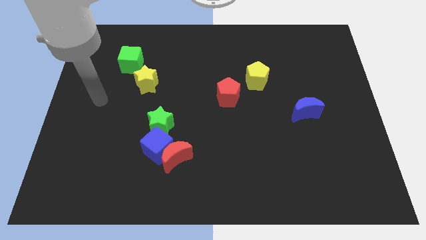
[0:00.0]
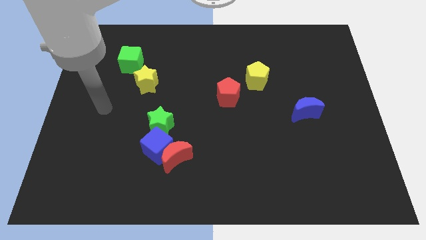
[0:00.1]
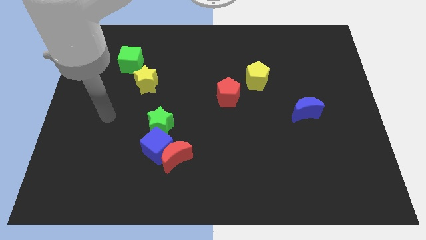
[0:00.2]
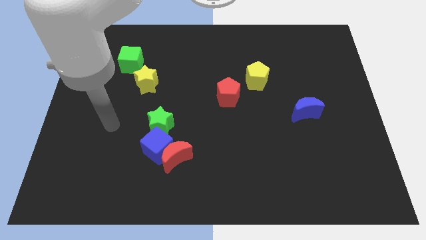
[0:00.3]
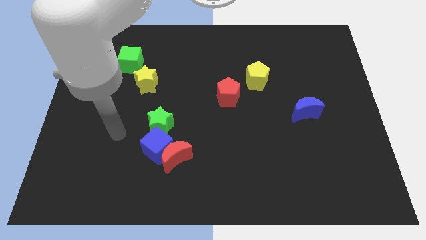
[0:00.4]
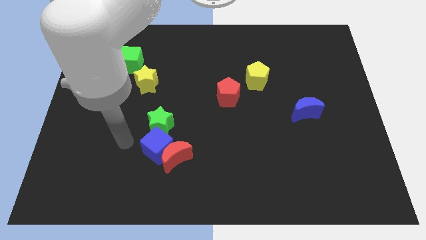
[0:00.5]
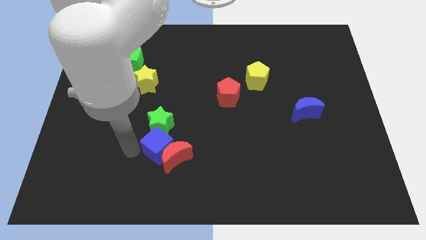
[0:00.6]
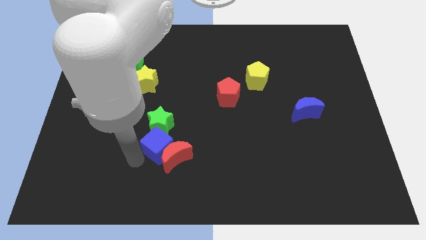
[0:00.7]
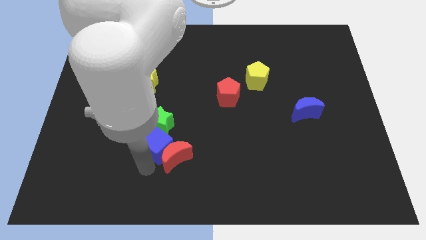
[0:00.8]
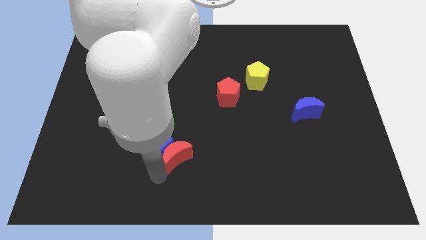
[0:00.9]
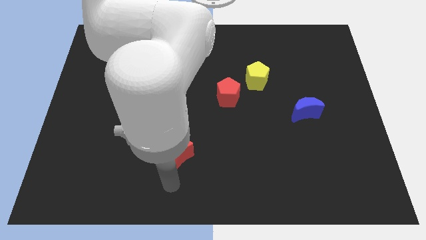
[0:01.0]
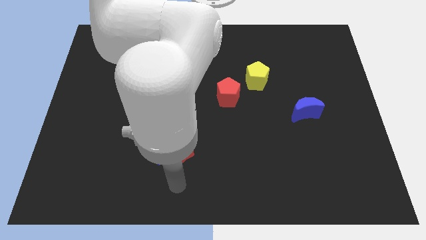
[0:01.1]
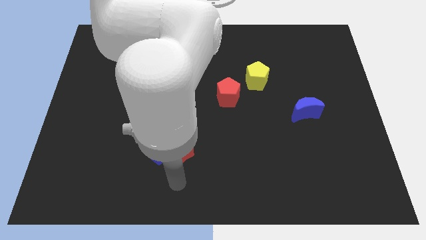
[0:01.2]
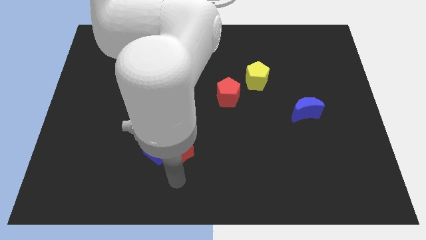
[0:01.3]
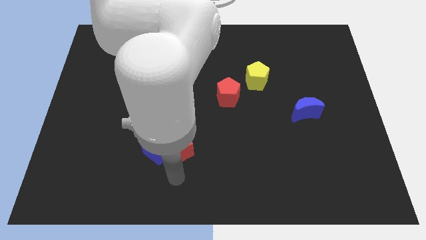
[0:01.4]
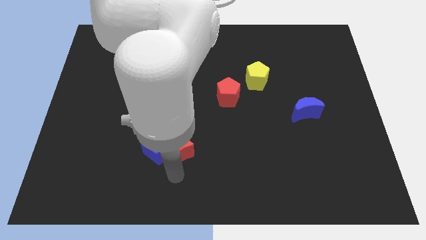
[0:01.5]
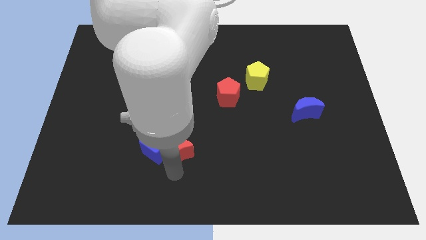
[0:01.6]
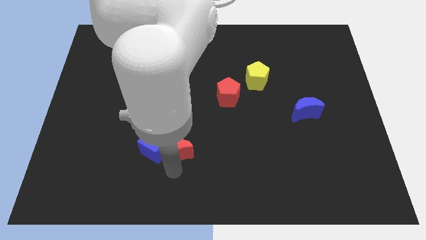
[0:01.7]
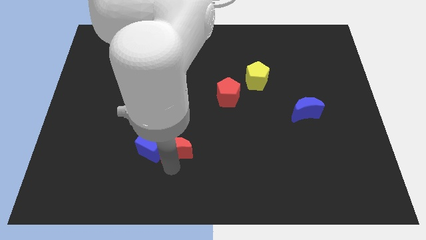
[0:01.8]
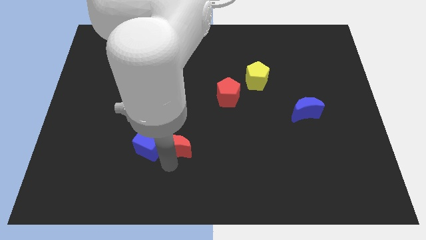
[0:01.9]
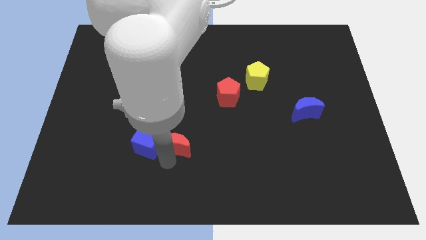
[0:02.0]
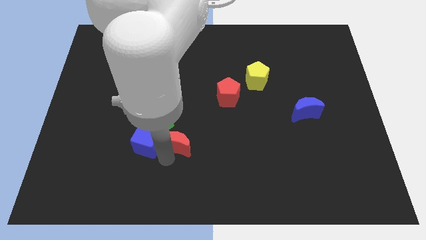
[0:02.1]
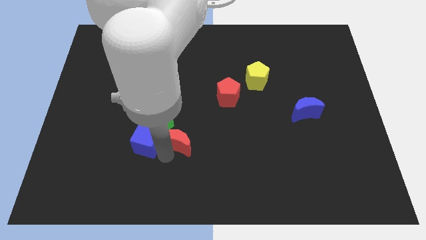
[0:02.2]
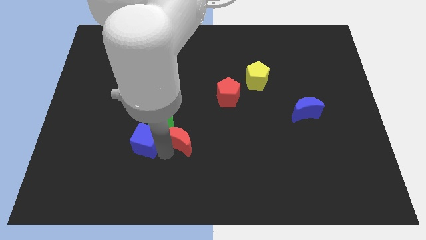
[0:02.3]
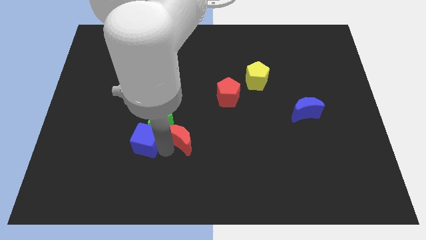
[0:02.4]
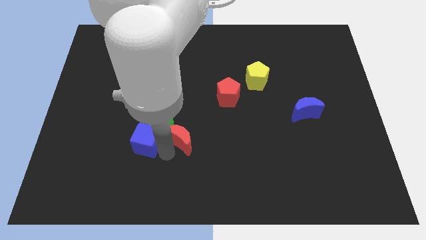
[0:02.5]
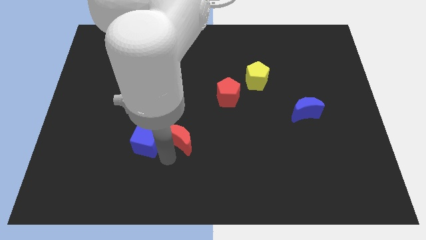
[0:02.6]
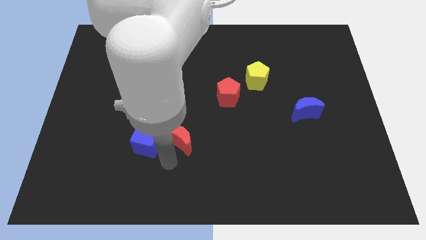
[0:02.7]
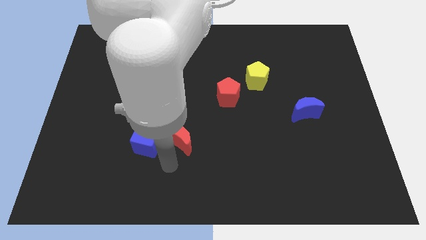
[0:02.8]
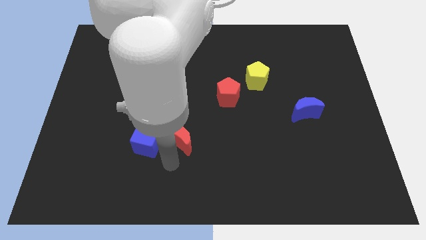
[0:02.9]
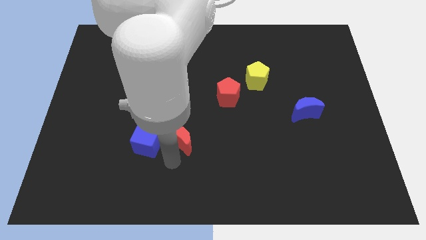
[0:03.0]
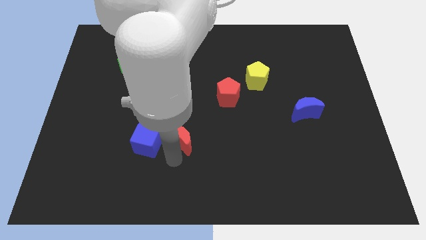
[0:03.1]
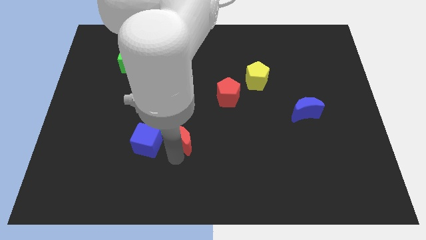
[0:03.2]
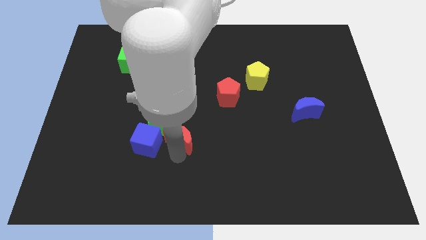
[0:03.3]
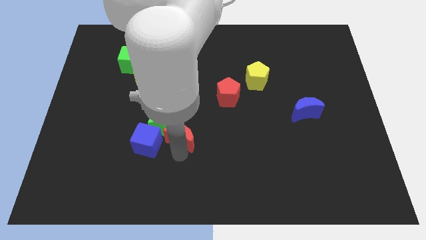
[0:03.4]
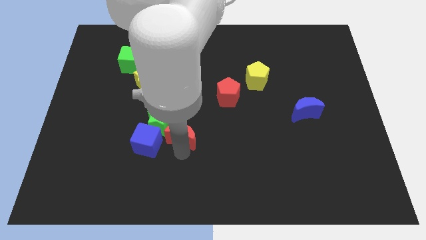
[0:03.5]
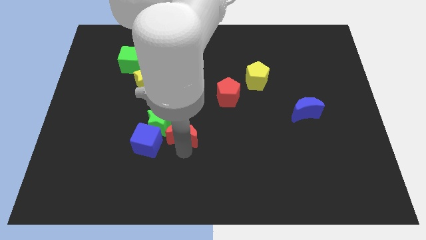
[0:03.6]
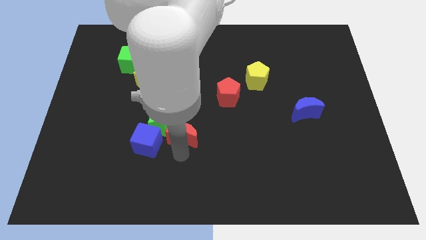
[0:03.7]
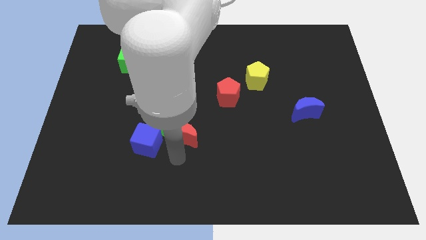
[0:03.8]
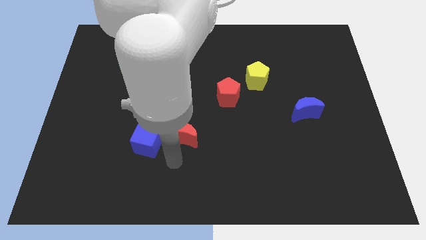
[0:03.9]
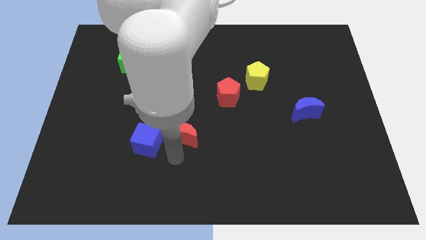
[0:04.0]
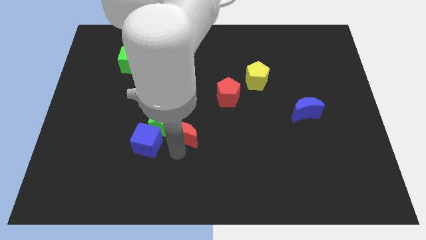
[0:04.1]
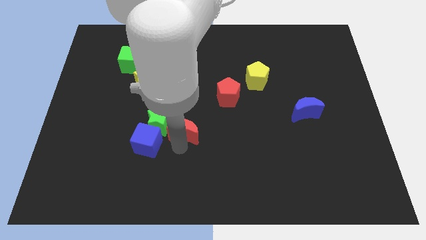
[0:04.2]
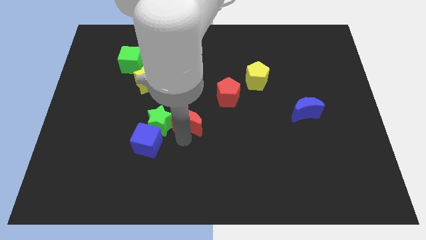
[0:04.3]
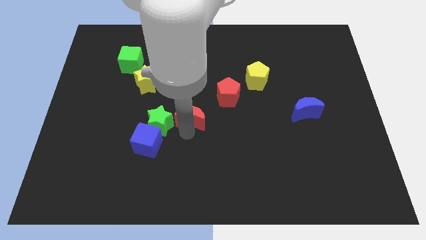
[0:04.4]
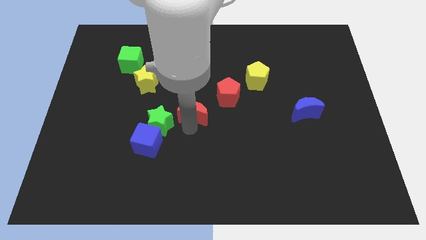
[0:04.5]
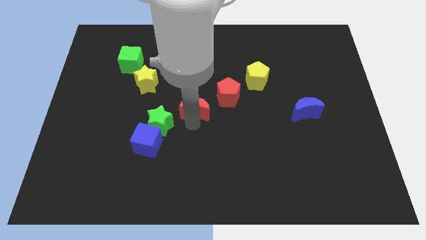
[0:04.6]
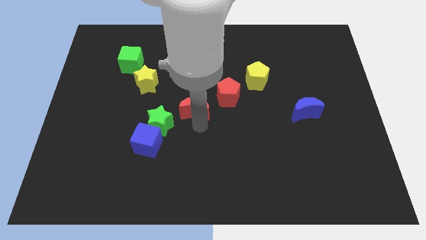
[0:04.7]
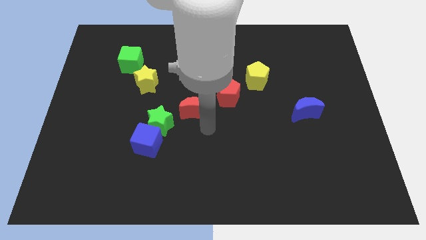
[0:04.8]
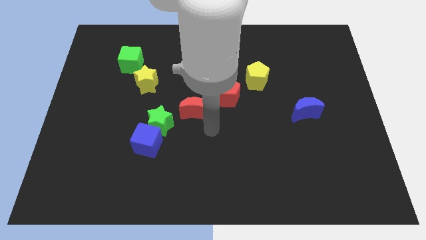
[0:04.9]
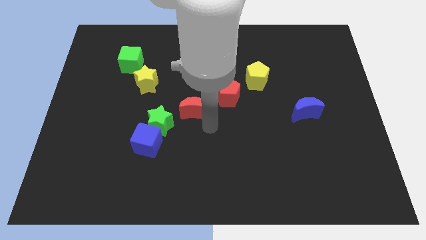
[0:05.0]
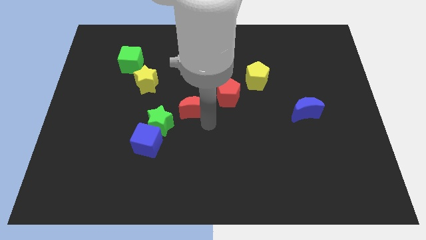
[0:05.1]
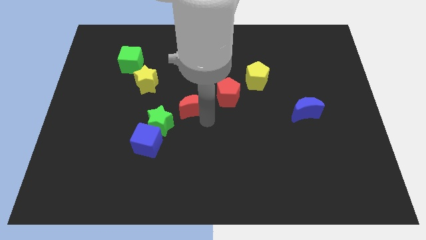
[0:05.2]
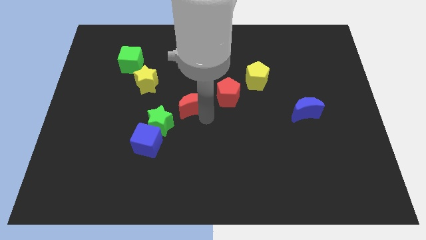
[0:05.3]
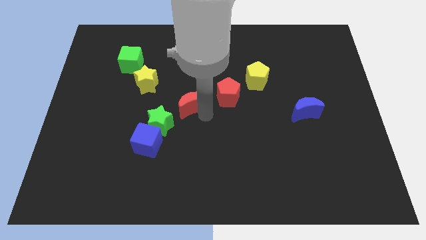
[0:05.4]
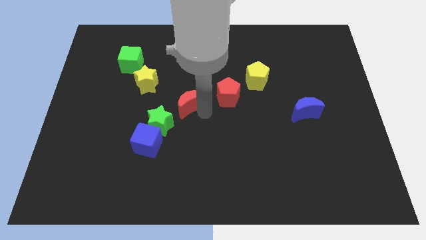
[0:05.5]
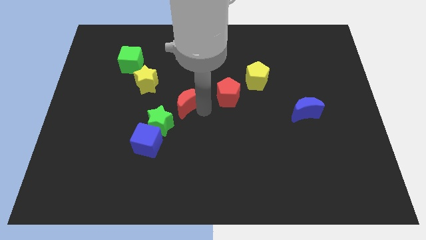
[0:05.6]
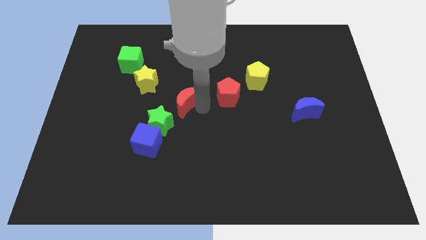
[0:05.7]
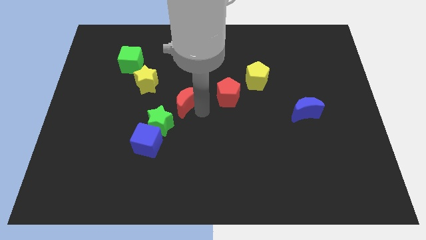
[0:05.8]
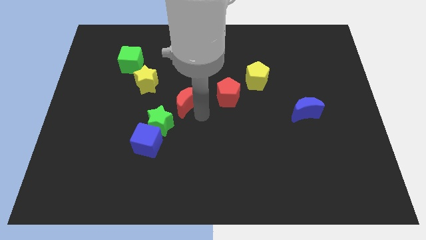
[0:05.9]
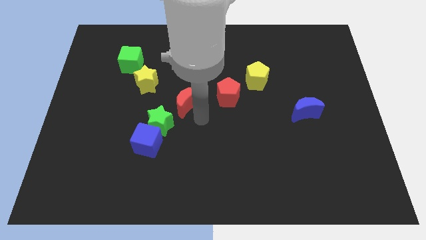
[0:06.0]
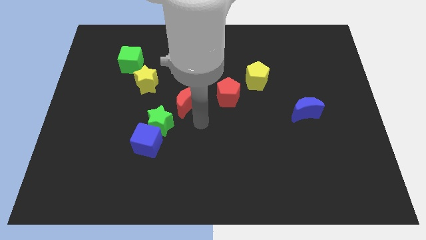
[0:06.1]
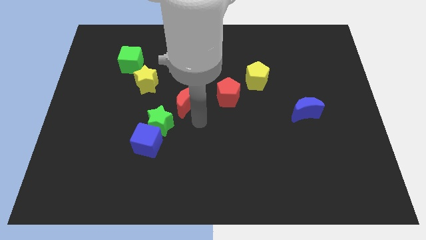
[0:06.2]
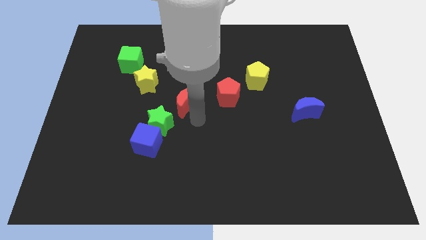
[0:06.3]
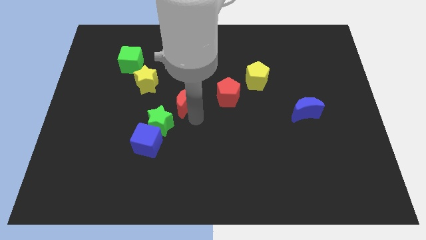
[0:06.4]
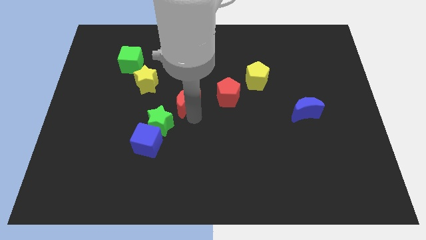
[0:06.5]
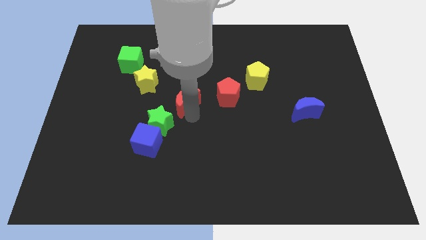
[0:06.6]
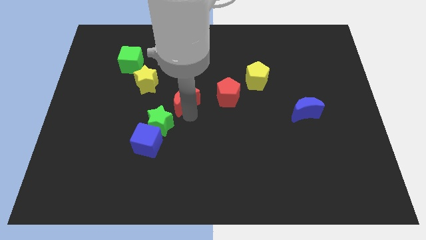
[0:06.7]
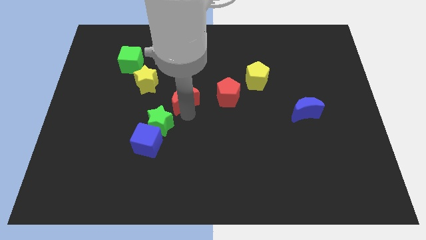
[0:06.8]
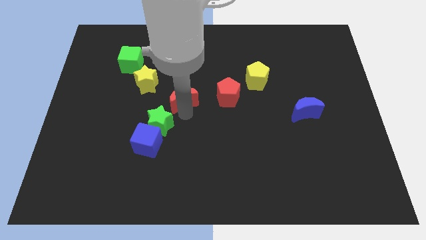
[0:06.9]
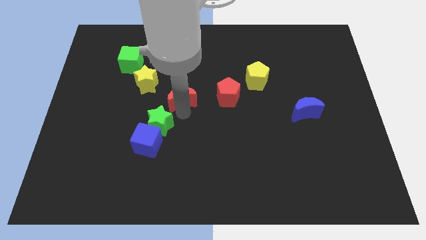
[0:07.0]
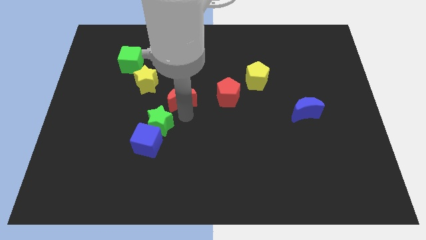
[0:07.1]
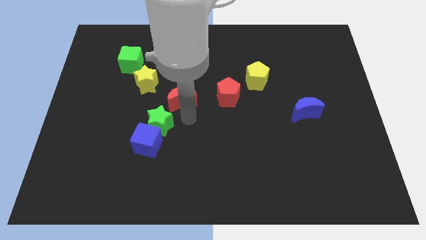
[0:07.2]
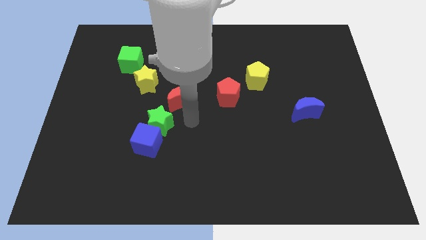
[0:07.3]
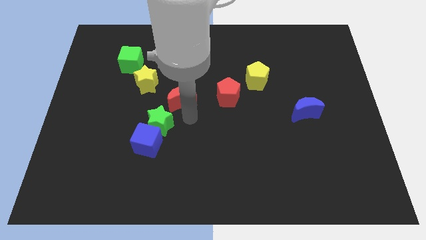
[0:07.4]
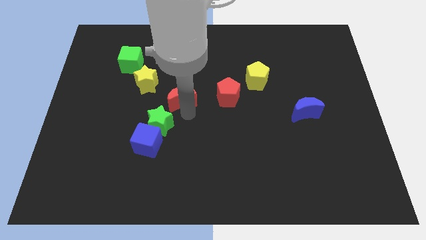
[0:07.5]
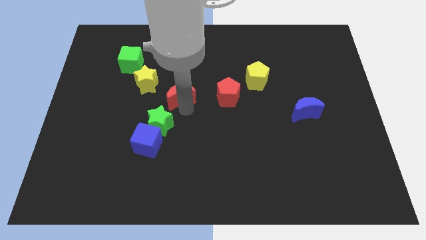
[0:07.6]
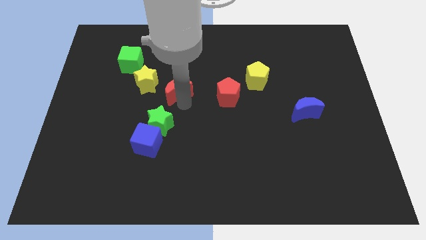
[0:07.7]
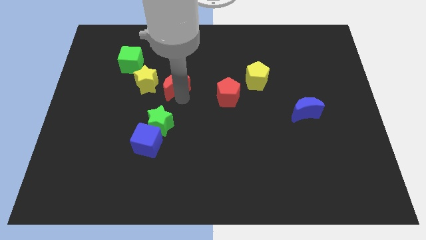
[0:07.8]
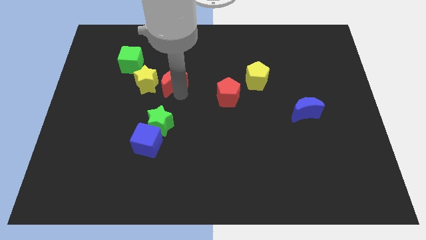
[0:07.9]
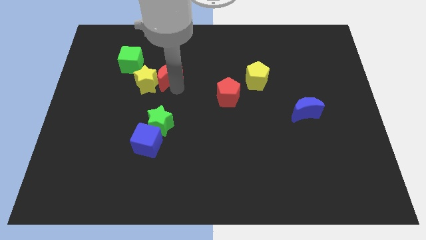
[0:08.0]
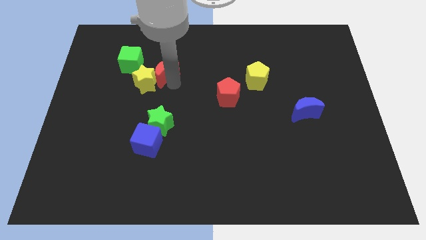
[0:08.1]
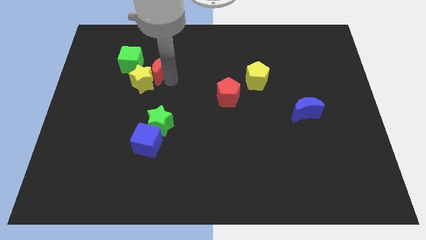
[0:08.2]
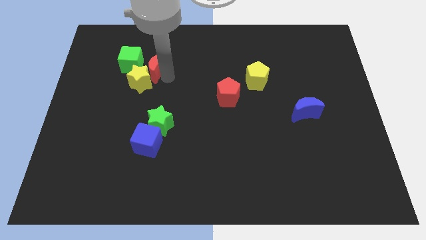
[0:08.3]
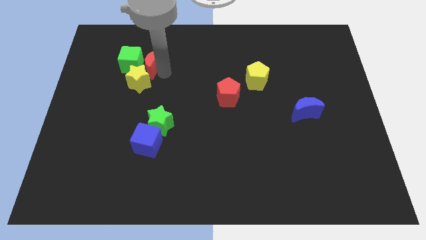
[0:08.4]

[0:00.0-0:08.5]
push the red moon to the green cube
